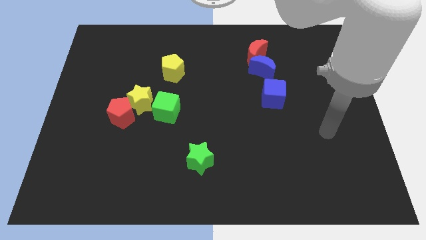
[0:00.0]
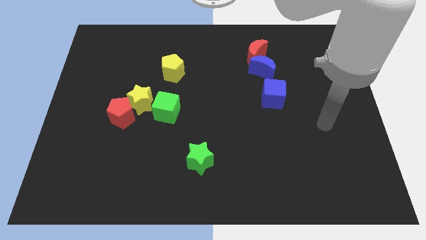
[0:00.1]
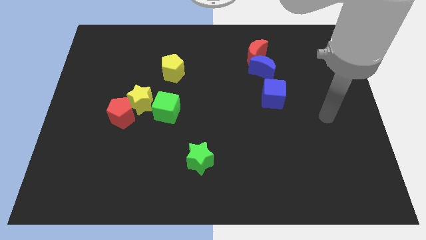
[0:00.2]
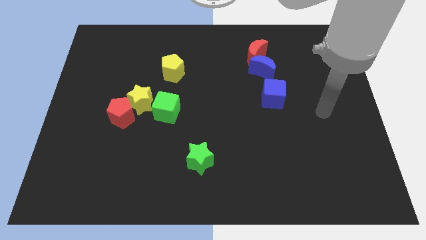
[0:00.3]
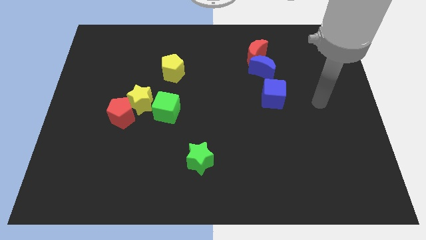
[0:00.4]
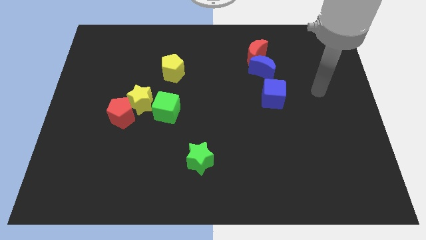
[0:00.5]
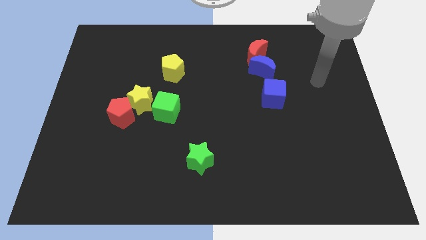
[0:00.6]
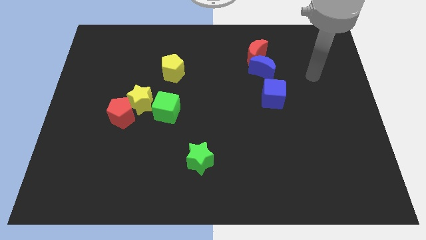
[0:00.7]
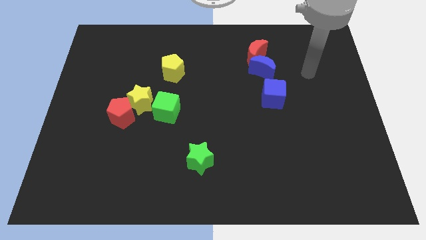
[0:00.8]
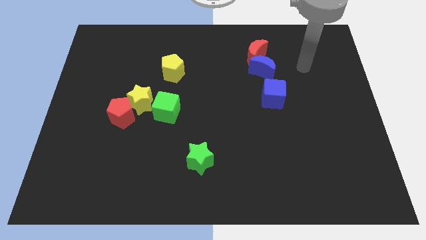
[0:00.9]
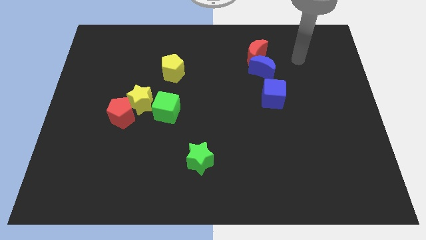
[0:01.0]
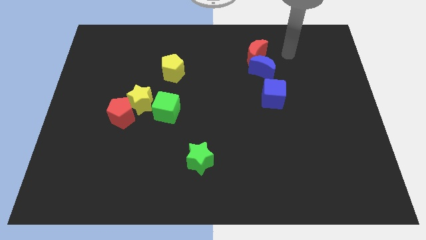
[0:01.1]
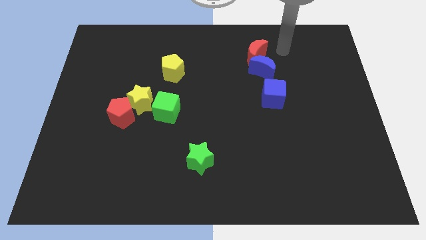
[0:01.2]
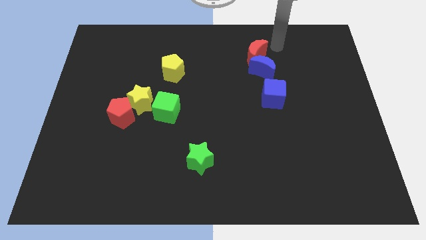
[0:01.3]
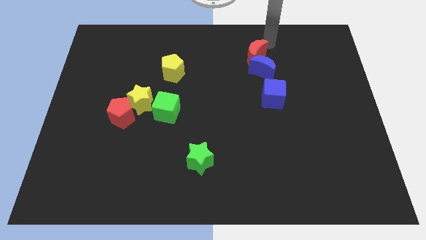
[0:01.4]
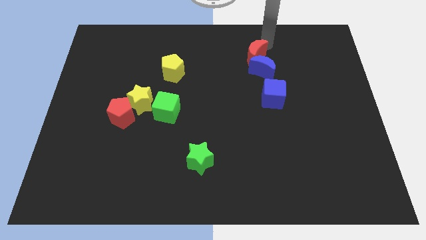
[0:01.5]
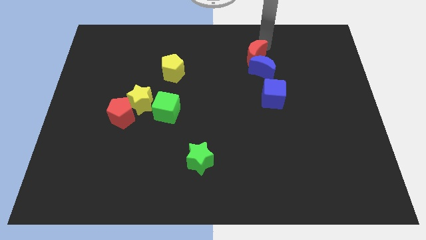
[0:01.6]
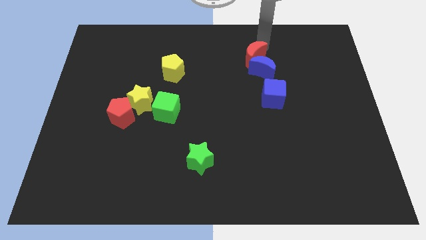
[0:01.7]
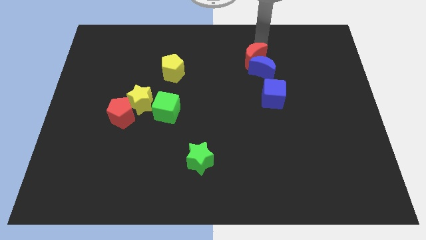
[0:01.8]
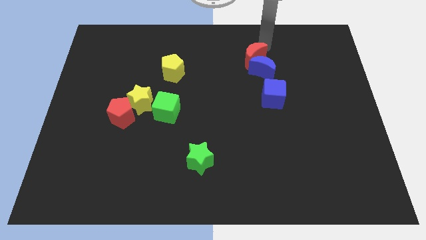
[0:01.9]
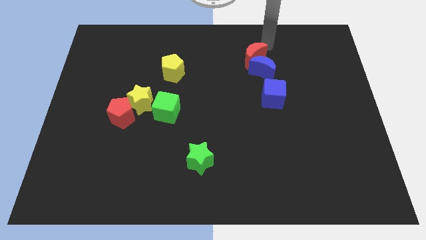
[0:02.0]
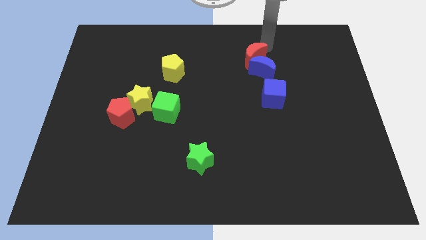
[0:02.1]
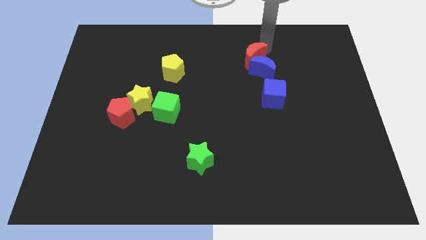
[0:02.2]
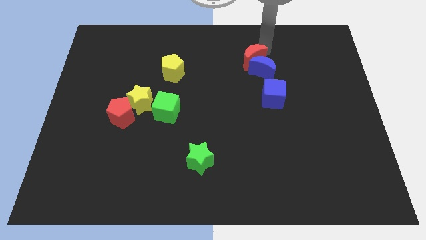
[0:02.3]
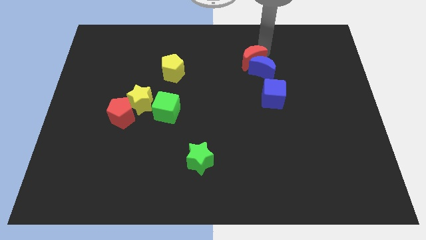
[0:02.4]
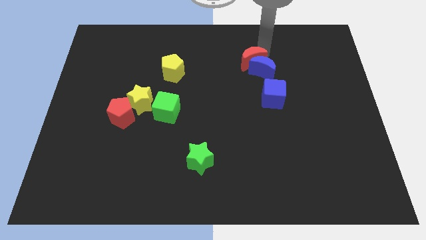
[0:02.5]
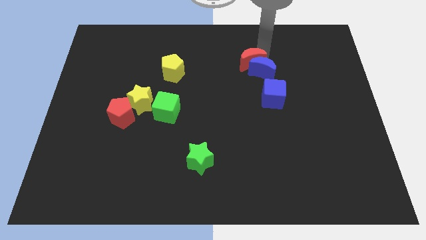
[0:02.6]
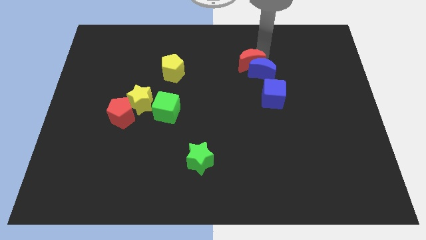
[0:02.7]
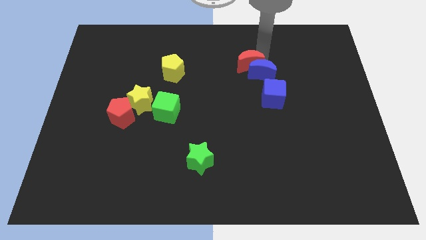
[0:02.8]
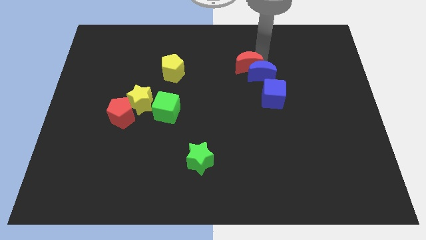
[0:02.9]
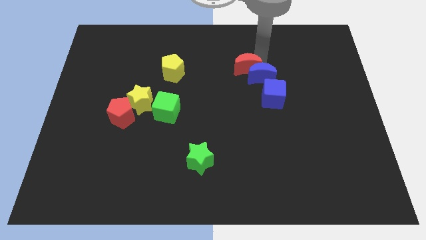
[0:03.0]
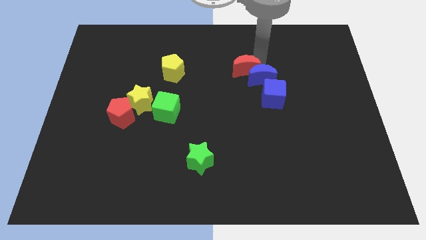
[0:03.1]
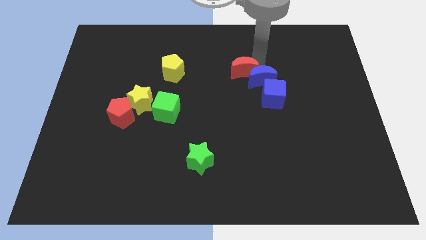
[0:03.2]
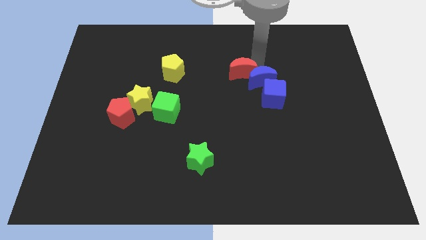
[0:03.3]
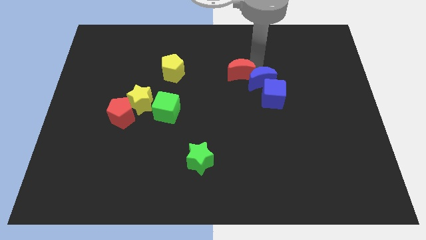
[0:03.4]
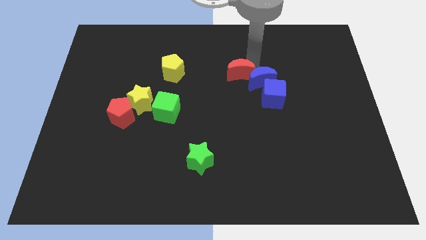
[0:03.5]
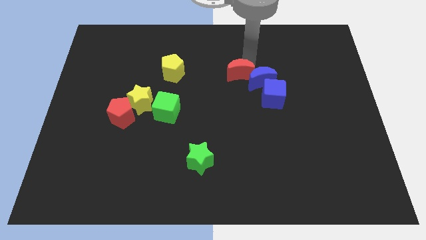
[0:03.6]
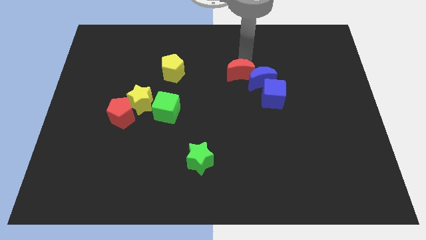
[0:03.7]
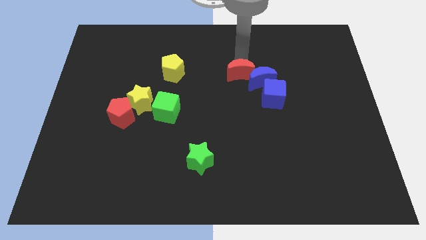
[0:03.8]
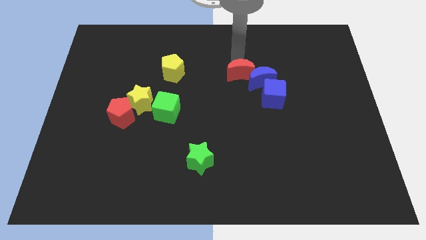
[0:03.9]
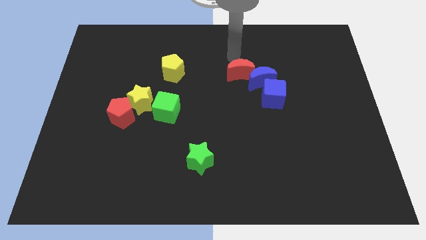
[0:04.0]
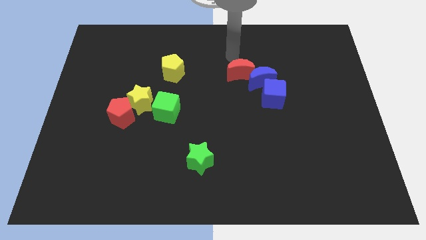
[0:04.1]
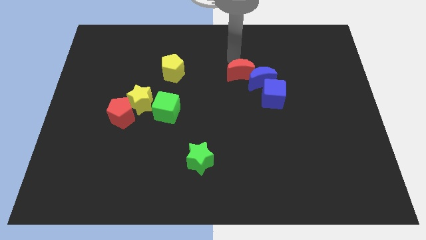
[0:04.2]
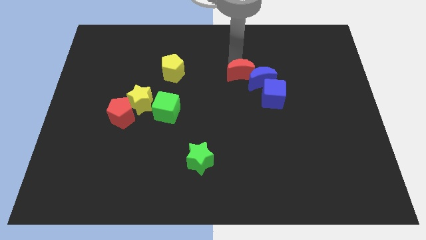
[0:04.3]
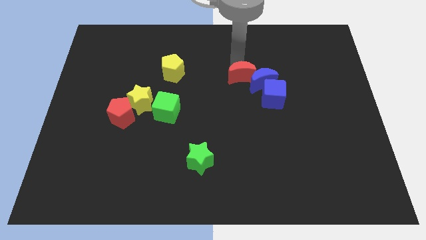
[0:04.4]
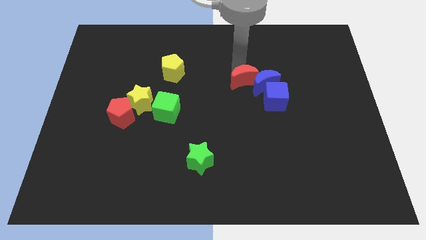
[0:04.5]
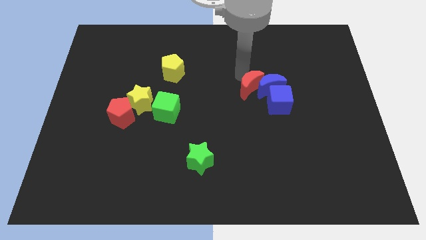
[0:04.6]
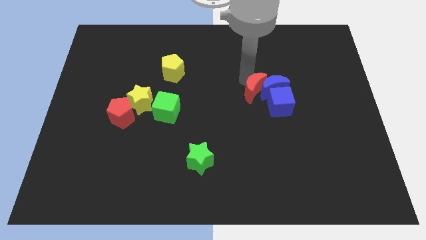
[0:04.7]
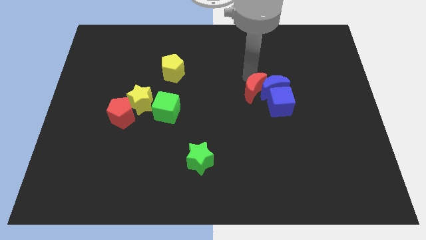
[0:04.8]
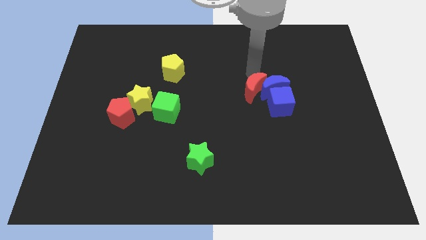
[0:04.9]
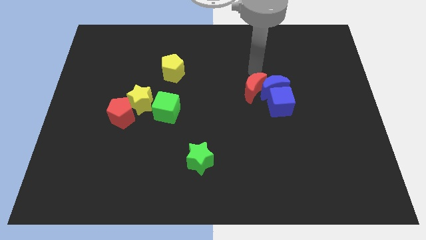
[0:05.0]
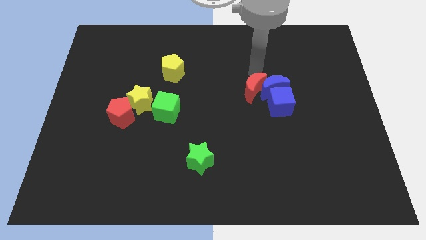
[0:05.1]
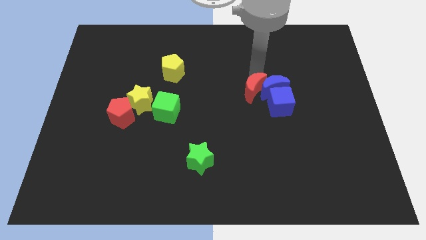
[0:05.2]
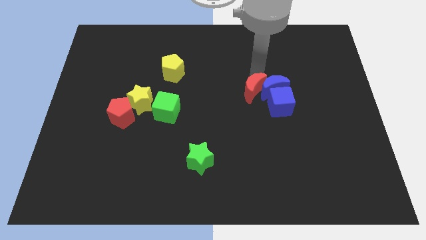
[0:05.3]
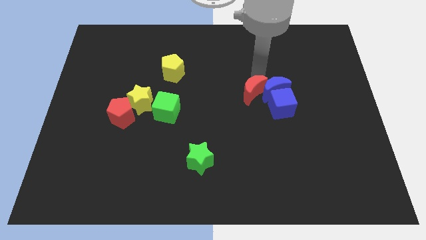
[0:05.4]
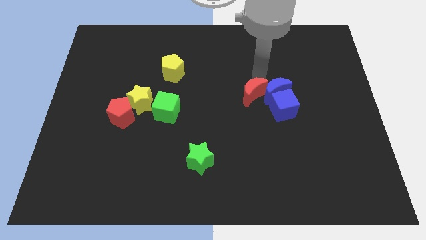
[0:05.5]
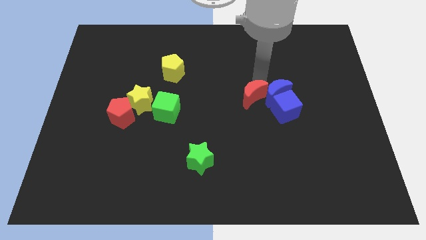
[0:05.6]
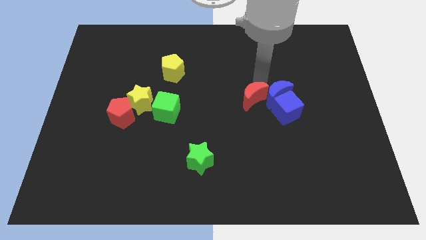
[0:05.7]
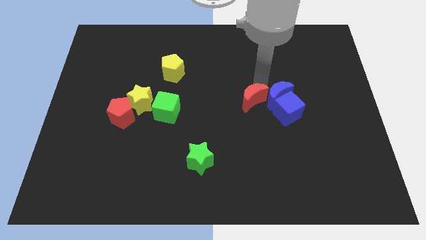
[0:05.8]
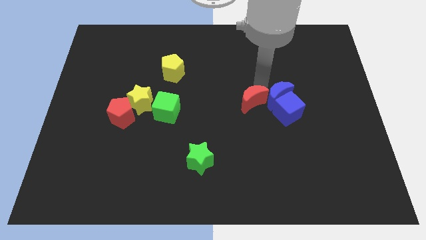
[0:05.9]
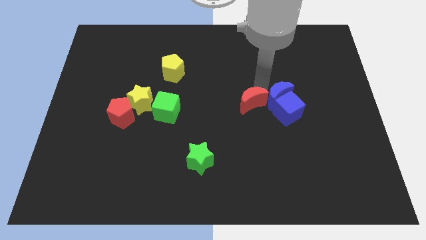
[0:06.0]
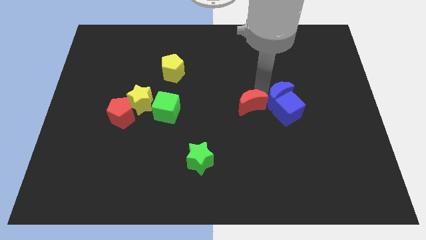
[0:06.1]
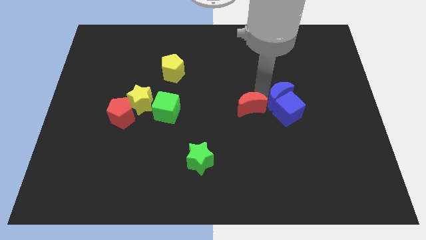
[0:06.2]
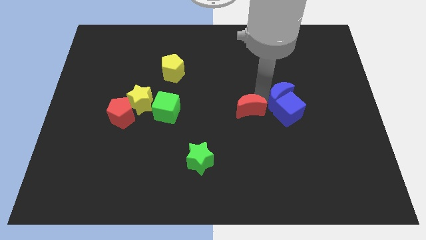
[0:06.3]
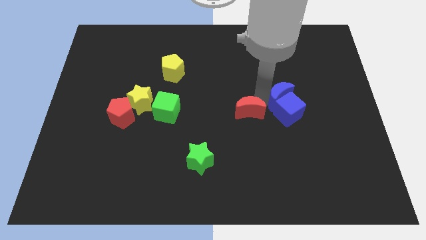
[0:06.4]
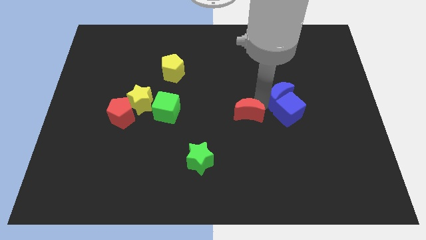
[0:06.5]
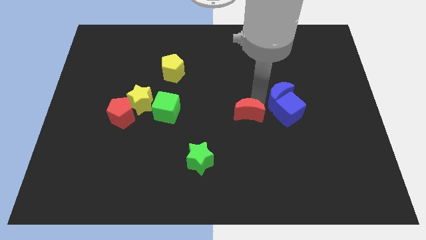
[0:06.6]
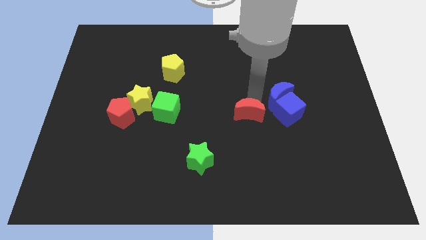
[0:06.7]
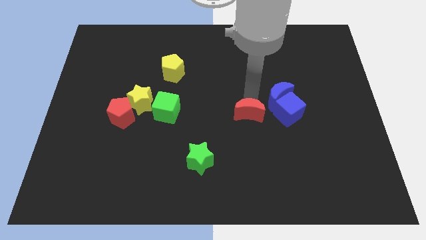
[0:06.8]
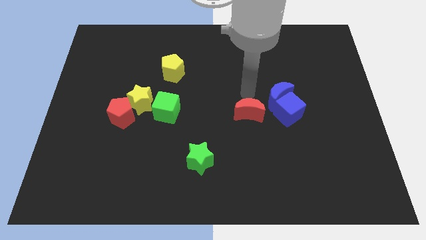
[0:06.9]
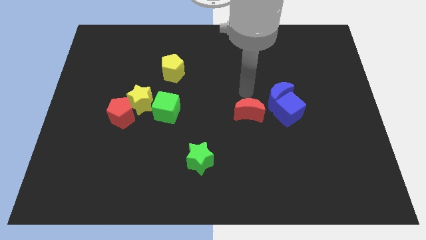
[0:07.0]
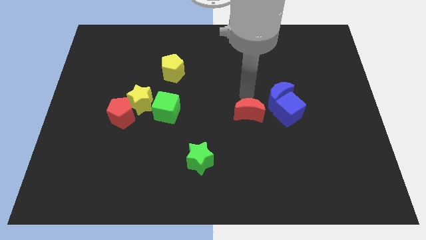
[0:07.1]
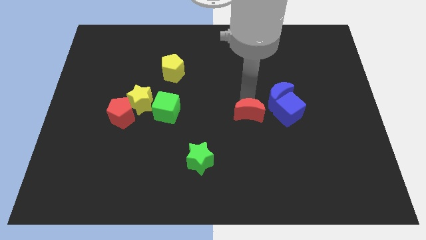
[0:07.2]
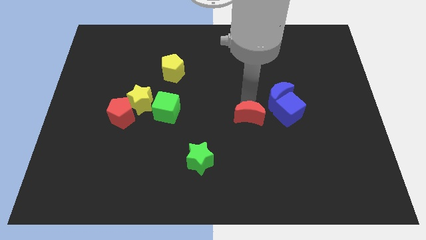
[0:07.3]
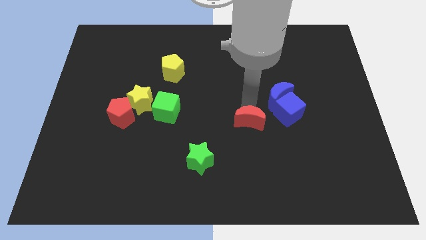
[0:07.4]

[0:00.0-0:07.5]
slide the red moon down

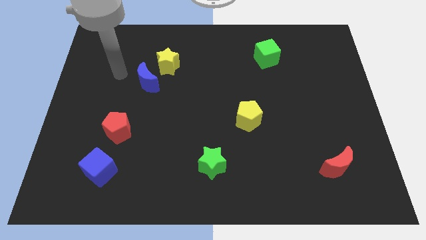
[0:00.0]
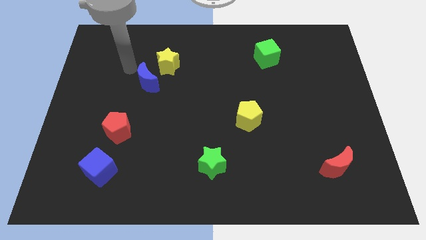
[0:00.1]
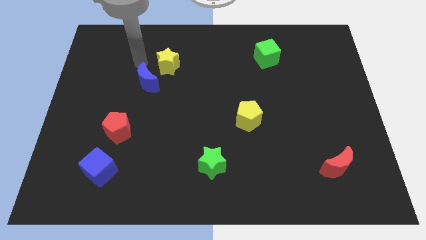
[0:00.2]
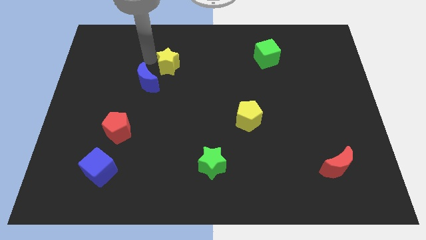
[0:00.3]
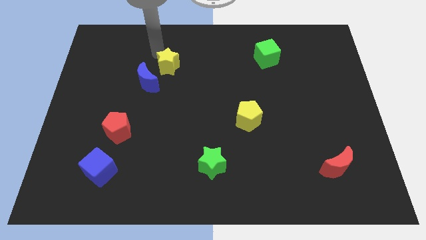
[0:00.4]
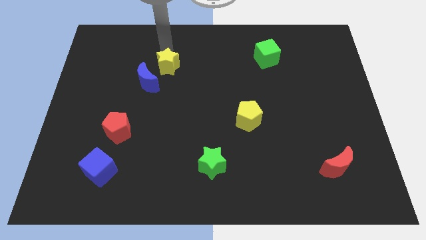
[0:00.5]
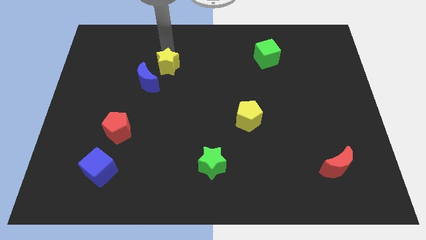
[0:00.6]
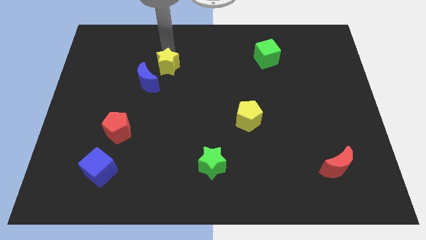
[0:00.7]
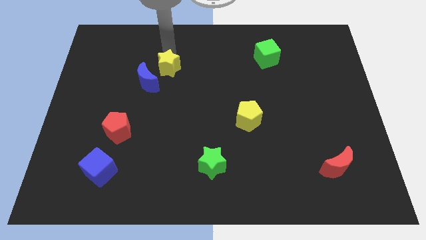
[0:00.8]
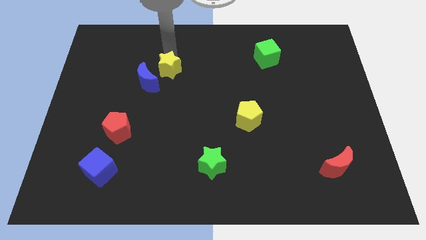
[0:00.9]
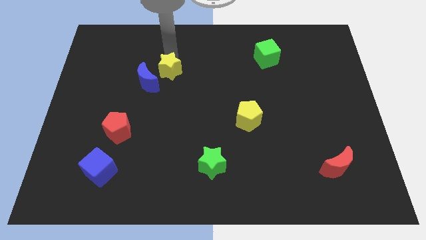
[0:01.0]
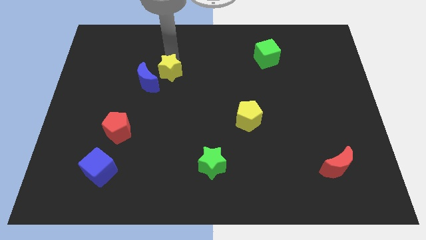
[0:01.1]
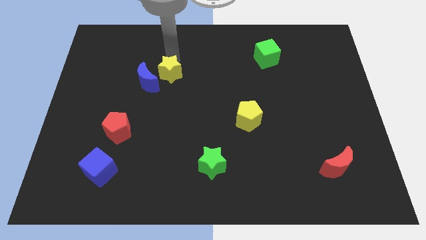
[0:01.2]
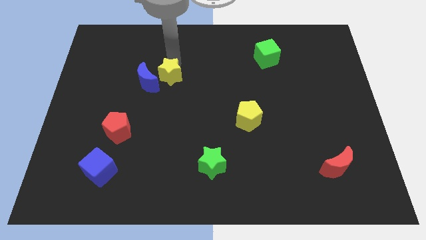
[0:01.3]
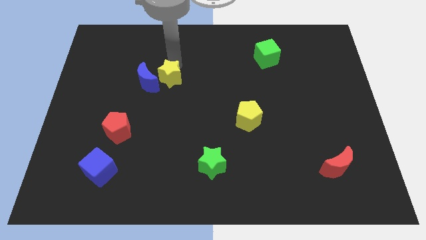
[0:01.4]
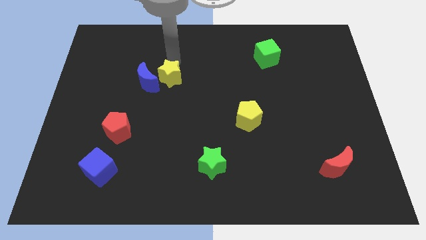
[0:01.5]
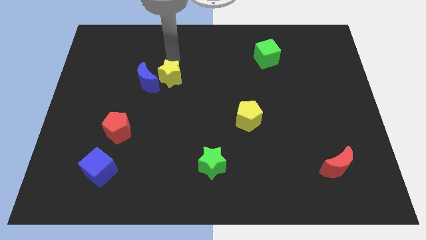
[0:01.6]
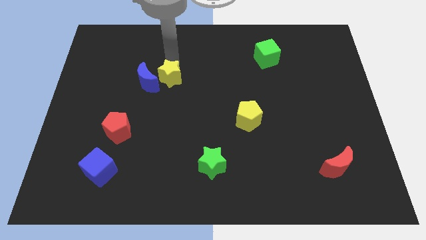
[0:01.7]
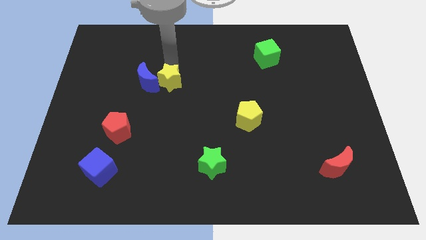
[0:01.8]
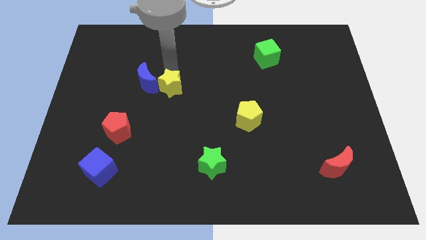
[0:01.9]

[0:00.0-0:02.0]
push the yellow star slightly down
